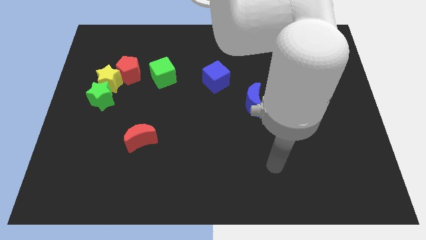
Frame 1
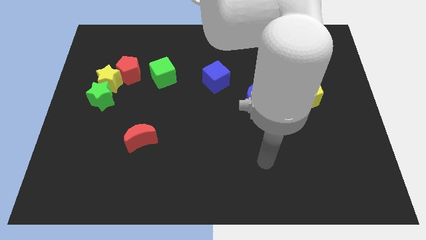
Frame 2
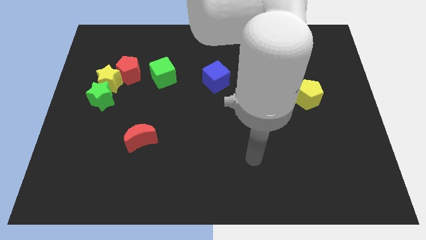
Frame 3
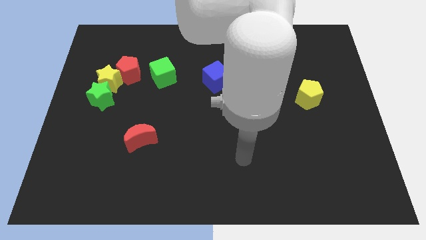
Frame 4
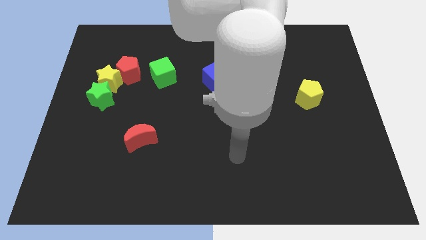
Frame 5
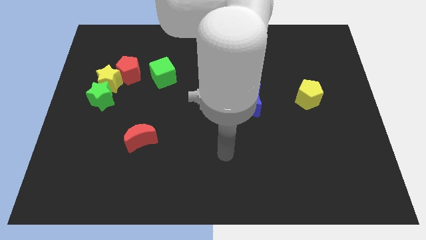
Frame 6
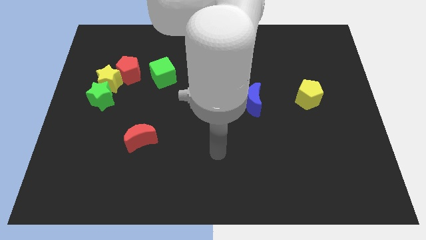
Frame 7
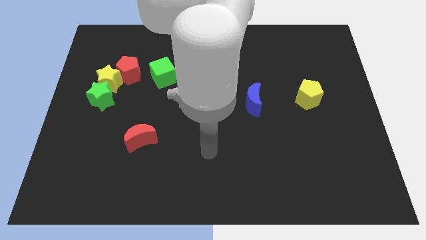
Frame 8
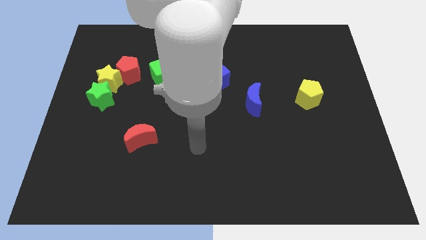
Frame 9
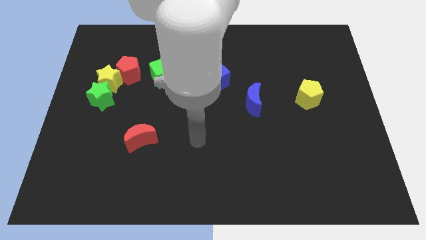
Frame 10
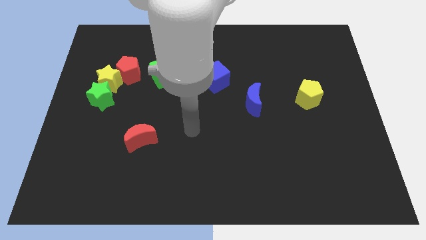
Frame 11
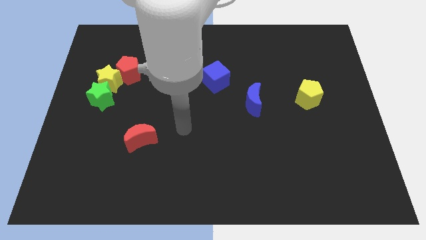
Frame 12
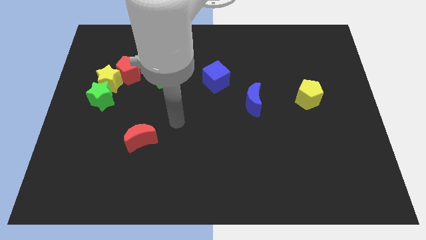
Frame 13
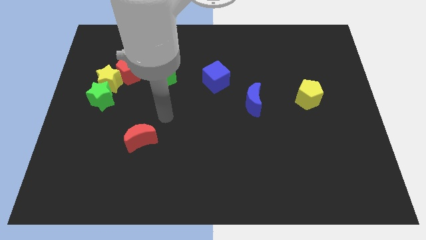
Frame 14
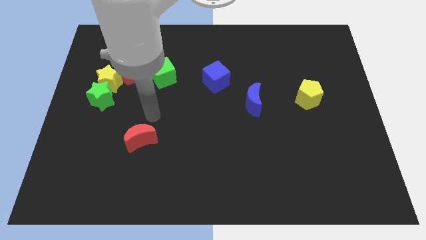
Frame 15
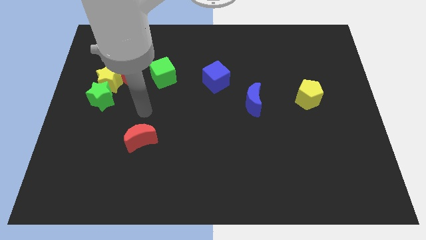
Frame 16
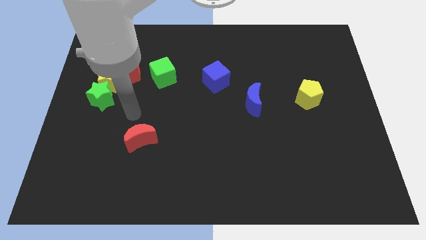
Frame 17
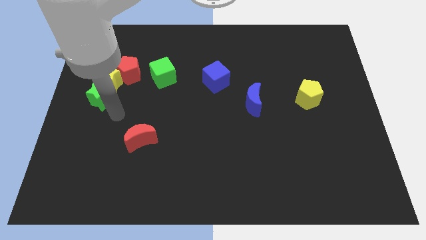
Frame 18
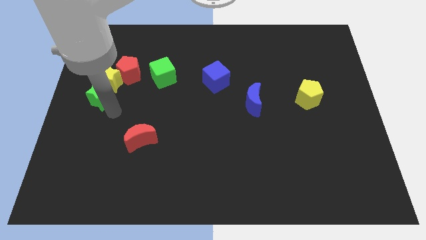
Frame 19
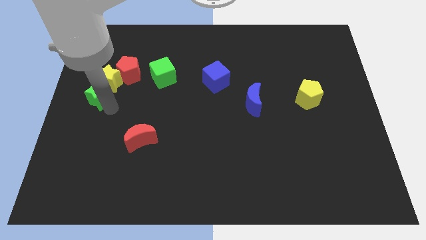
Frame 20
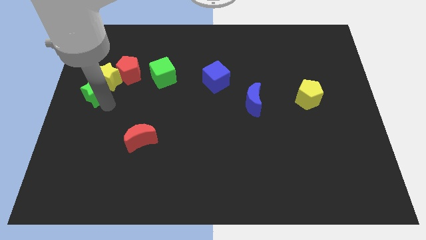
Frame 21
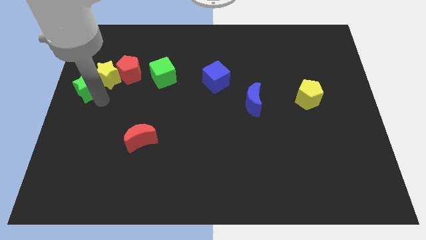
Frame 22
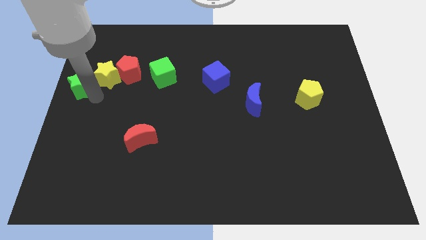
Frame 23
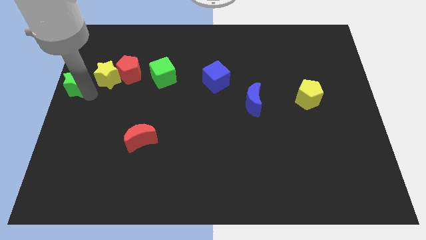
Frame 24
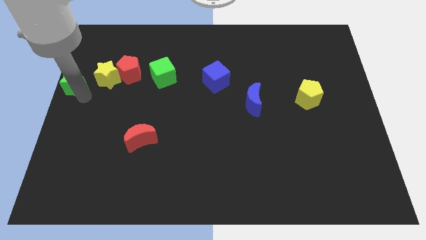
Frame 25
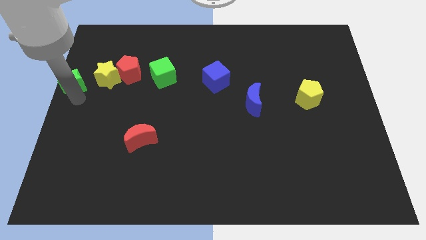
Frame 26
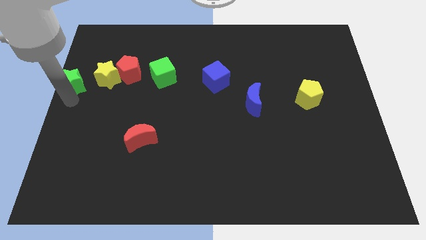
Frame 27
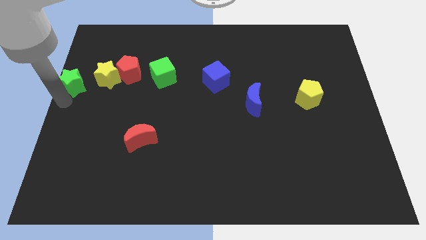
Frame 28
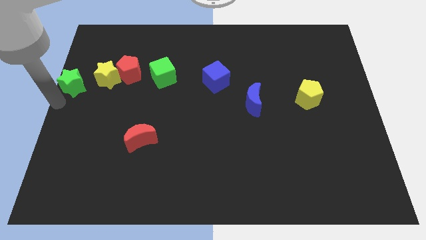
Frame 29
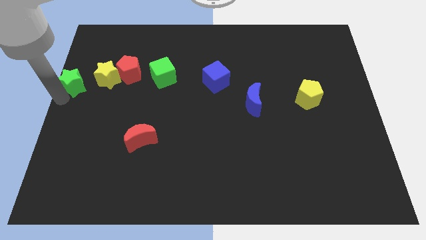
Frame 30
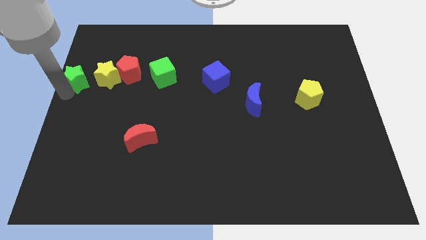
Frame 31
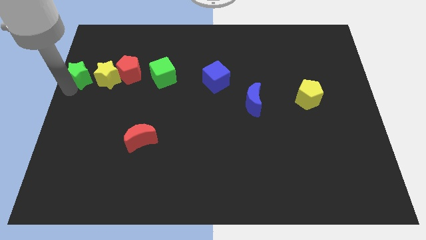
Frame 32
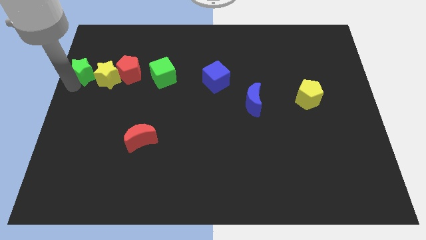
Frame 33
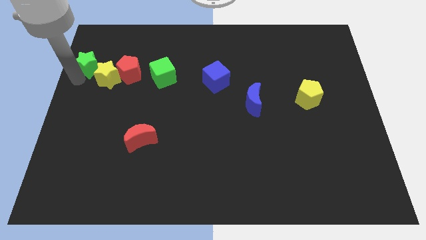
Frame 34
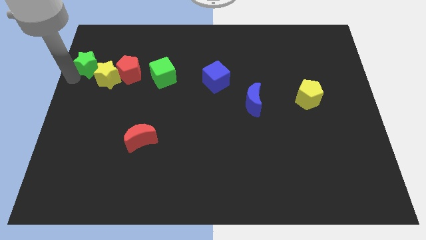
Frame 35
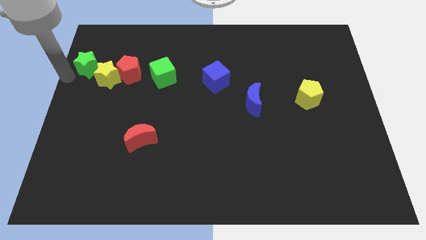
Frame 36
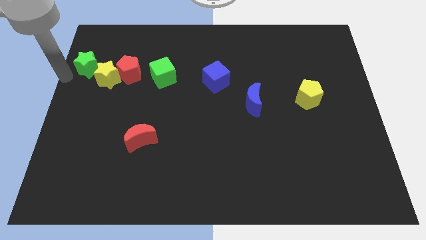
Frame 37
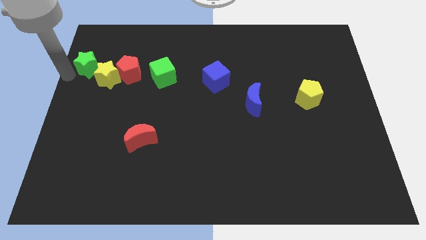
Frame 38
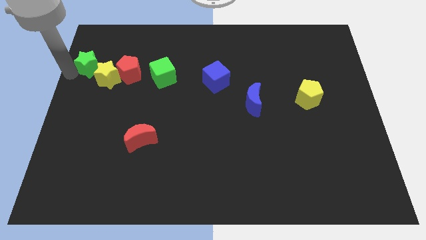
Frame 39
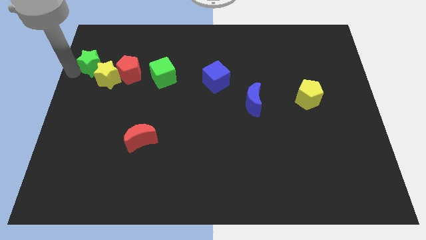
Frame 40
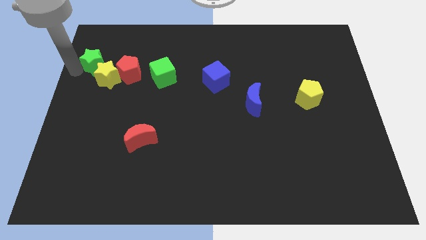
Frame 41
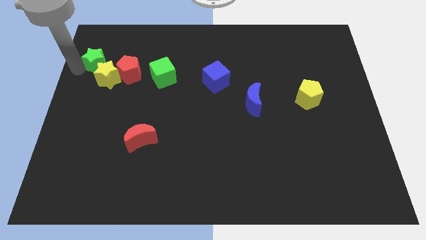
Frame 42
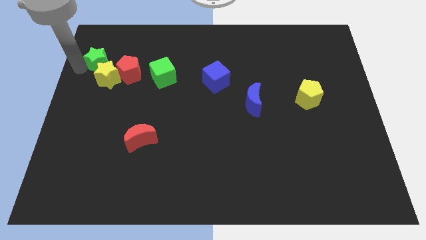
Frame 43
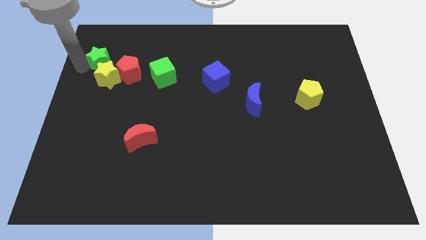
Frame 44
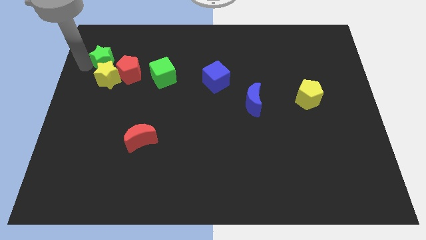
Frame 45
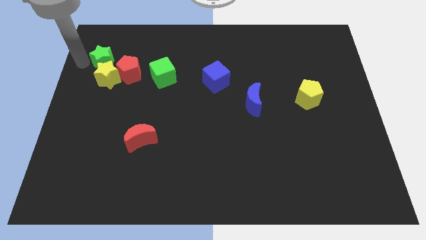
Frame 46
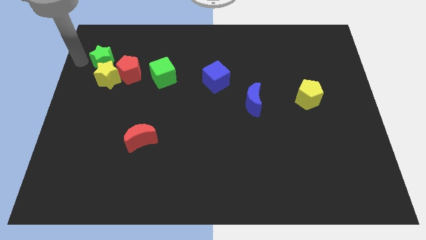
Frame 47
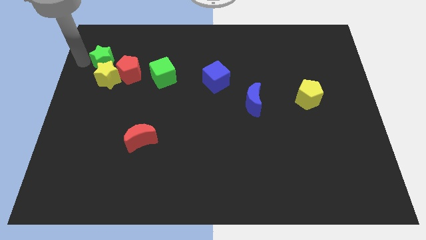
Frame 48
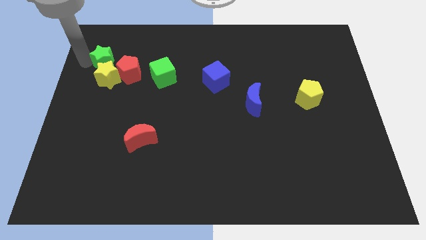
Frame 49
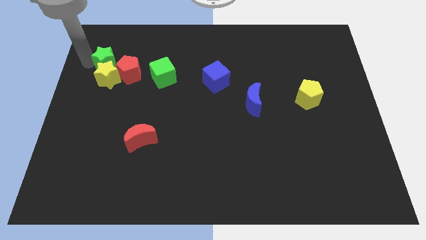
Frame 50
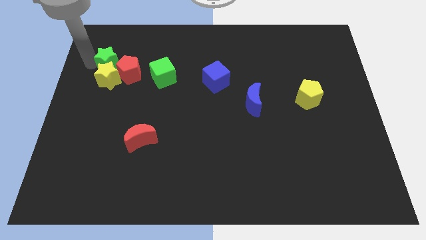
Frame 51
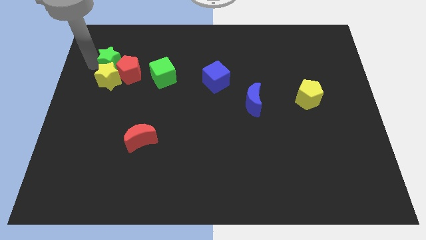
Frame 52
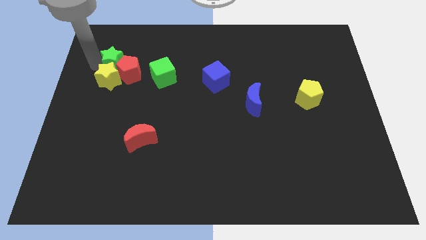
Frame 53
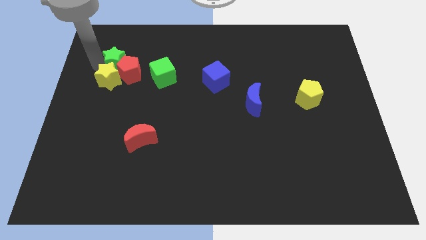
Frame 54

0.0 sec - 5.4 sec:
slightly slide the green star diagonally up and to the right

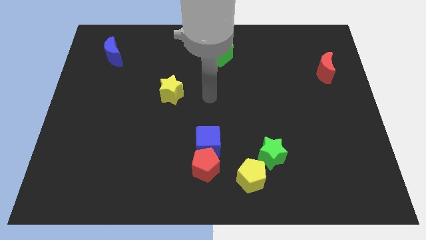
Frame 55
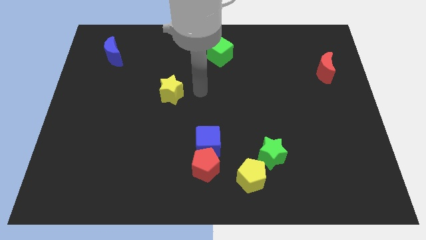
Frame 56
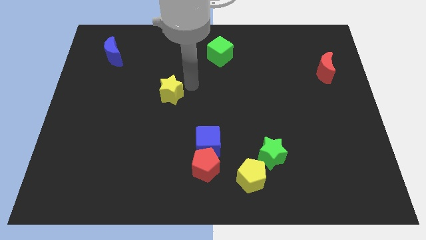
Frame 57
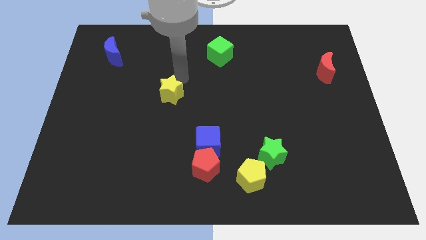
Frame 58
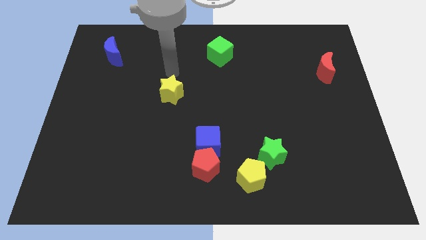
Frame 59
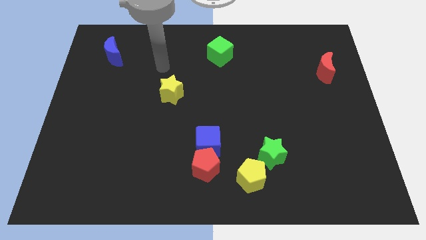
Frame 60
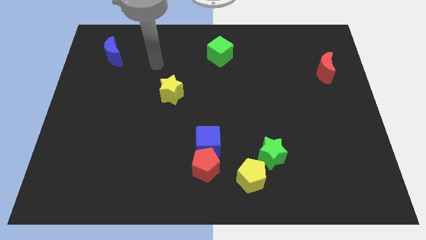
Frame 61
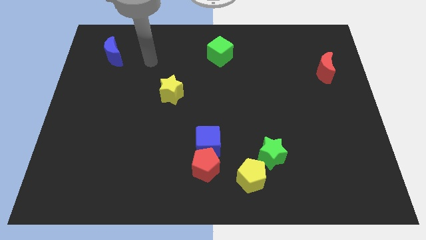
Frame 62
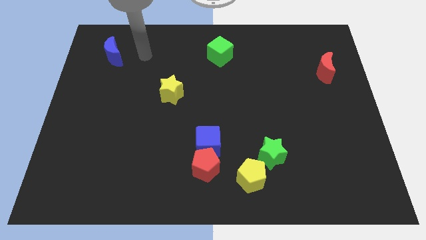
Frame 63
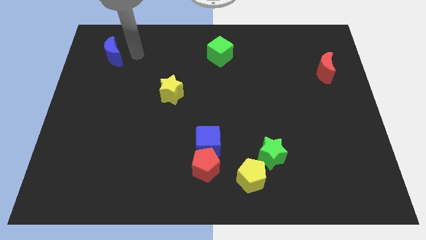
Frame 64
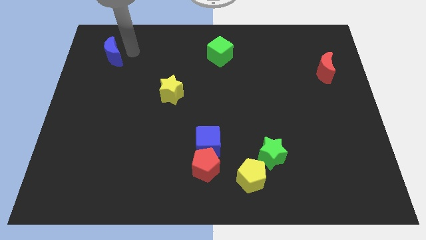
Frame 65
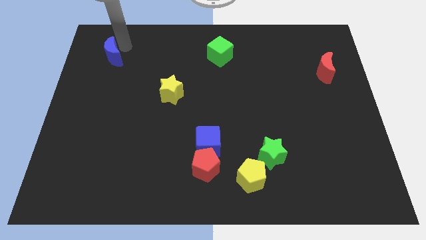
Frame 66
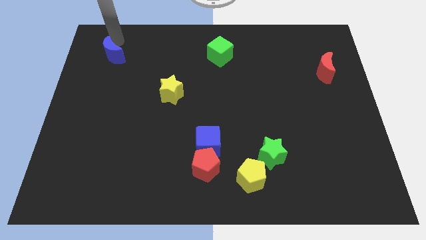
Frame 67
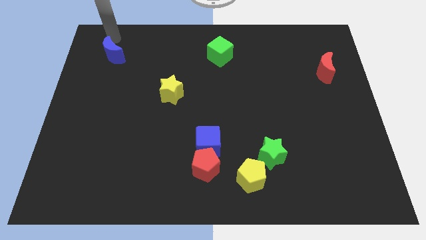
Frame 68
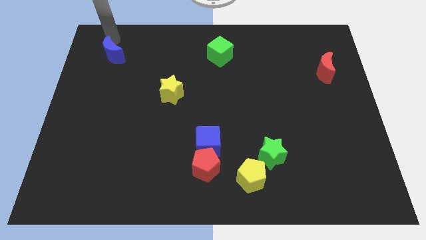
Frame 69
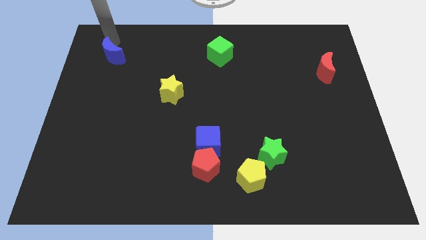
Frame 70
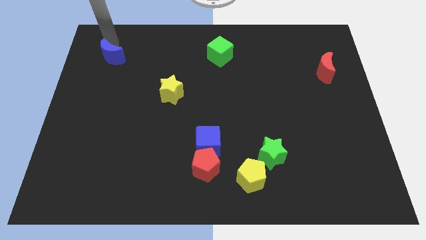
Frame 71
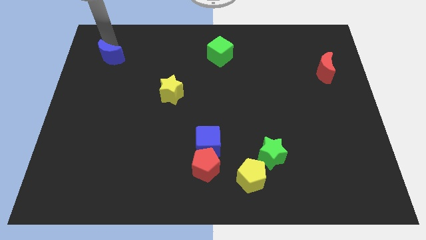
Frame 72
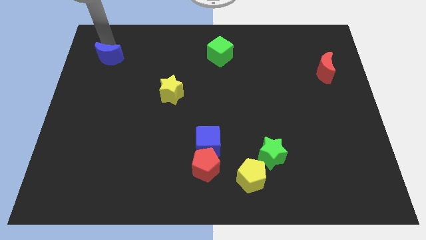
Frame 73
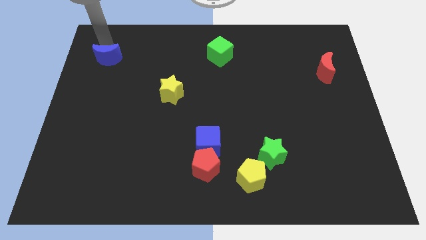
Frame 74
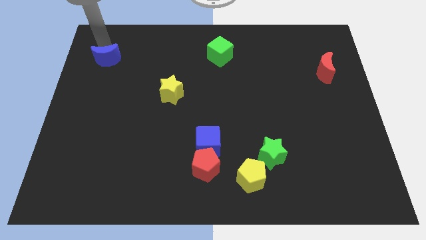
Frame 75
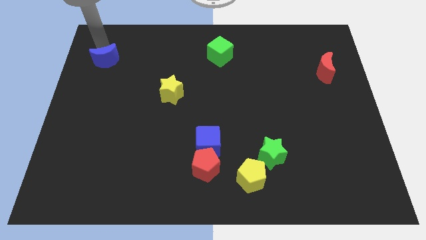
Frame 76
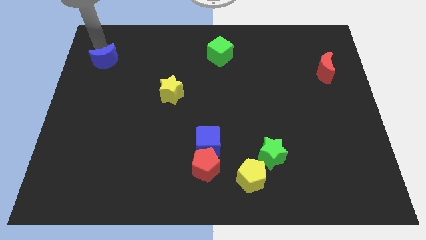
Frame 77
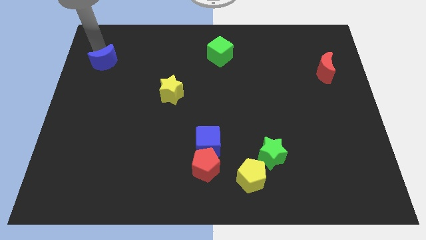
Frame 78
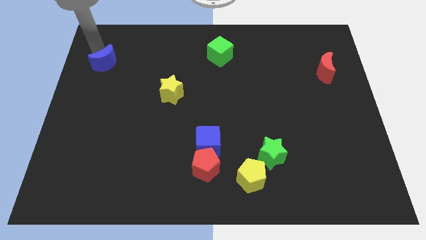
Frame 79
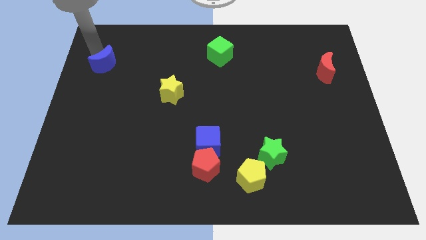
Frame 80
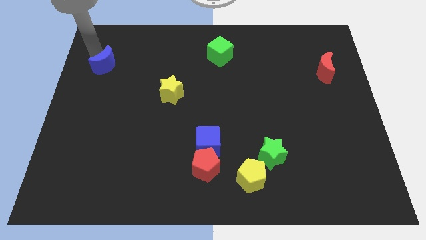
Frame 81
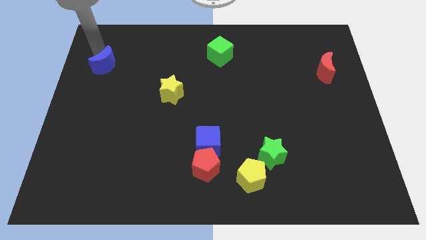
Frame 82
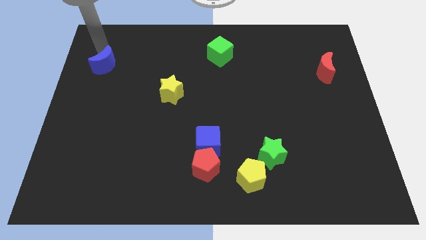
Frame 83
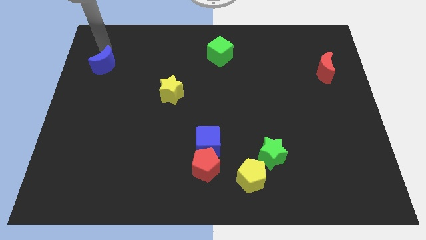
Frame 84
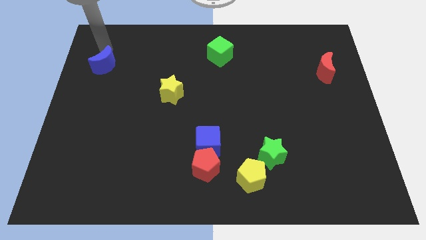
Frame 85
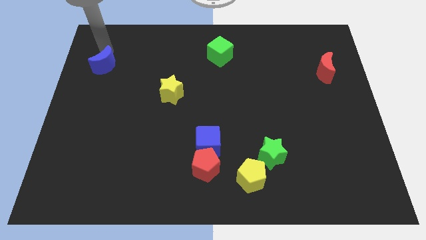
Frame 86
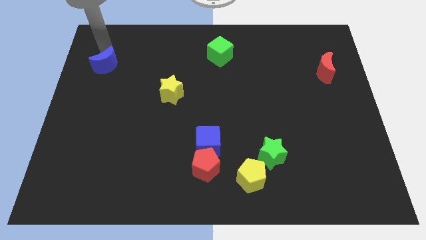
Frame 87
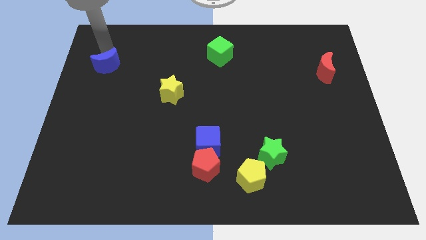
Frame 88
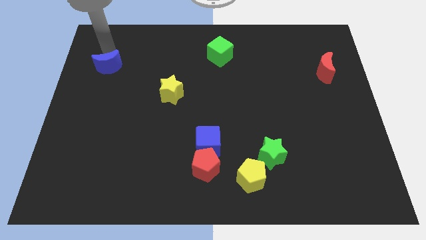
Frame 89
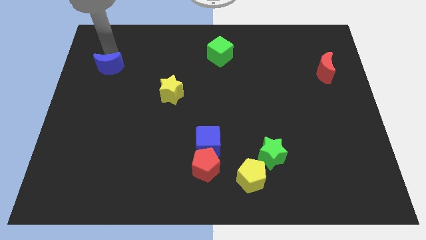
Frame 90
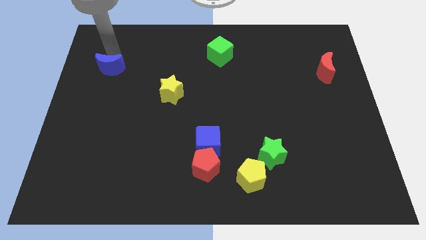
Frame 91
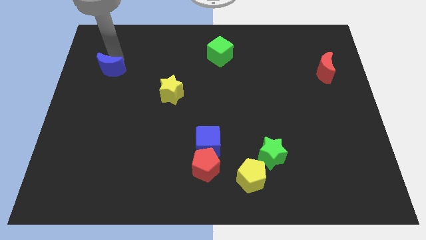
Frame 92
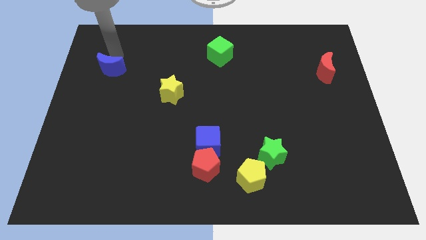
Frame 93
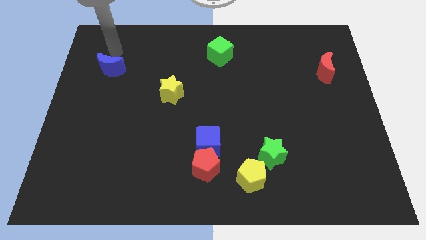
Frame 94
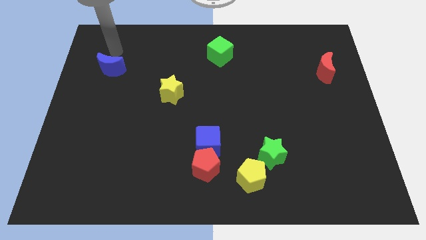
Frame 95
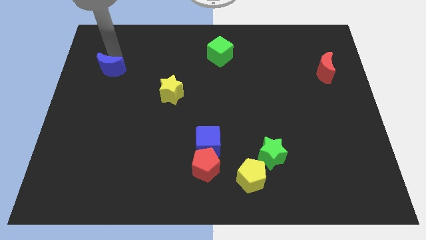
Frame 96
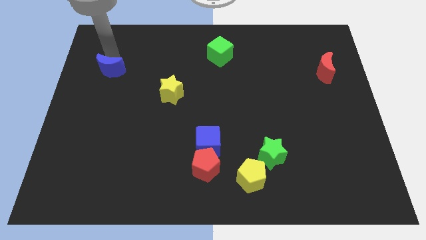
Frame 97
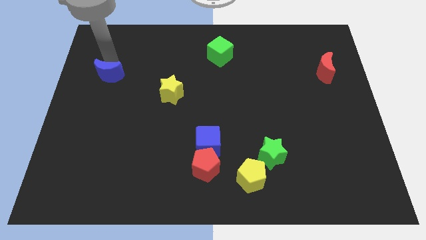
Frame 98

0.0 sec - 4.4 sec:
slide the blue moon somewhat down
